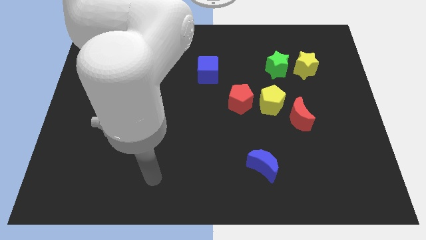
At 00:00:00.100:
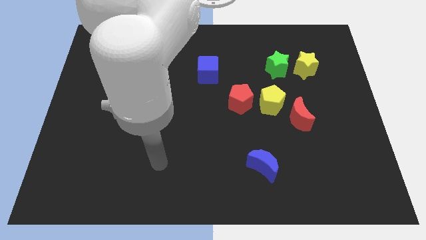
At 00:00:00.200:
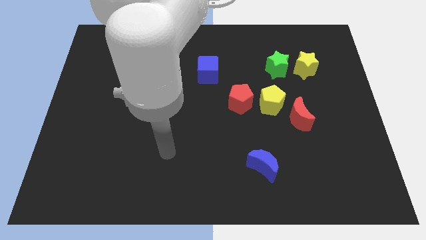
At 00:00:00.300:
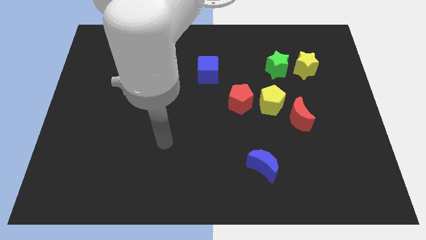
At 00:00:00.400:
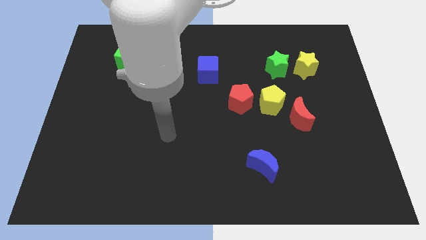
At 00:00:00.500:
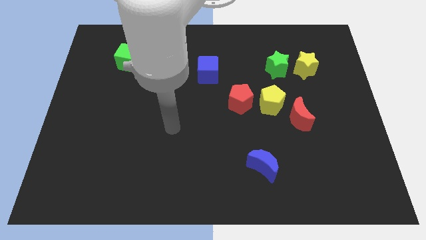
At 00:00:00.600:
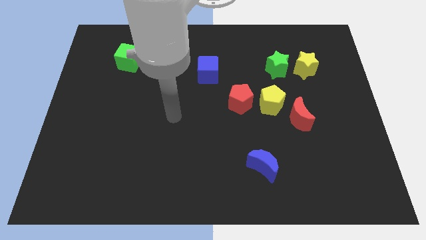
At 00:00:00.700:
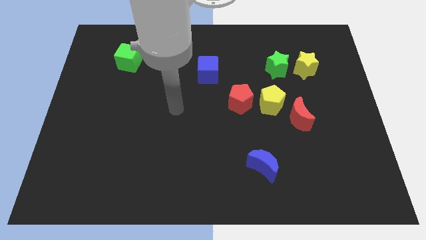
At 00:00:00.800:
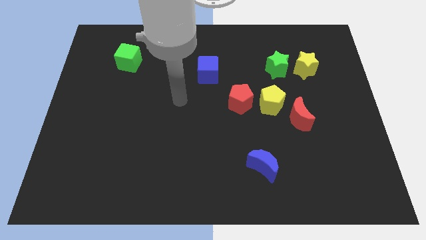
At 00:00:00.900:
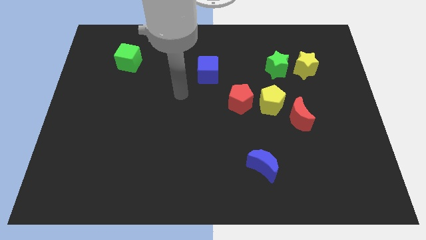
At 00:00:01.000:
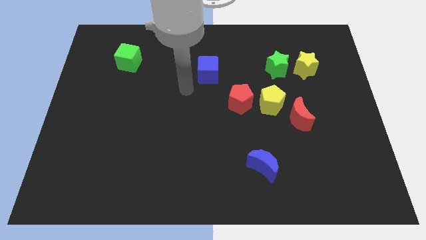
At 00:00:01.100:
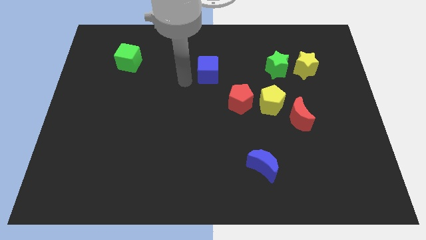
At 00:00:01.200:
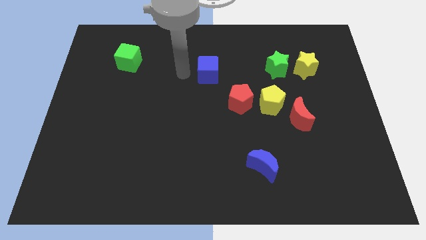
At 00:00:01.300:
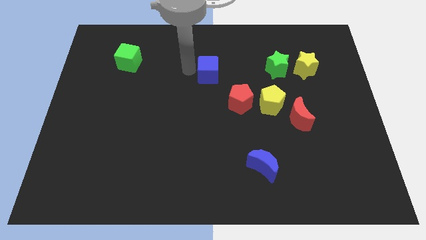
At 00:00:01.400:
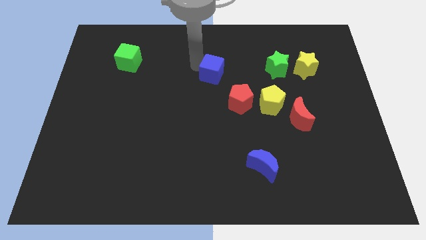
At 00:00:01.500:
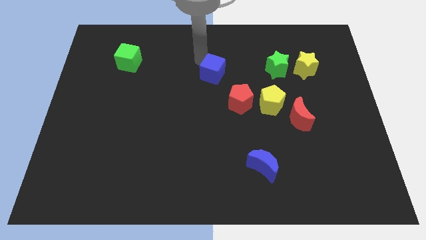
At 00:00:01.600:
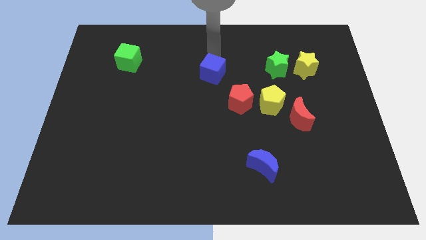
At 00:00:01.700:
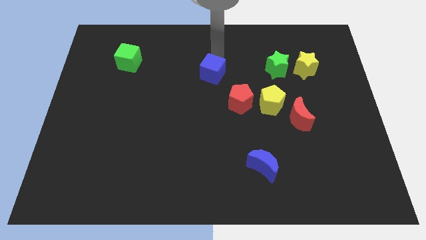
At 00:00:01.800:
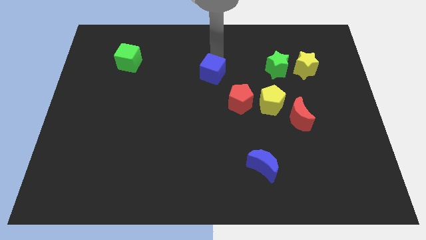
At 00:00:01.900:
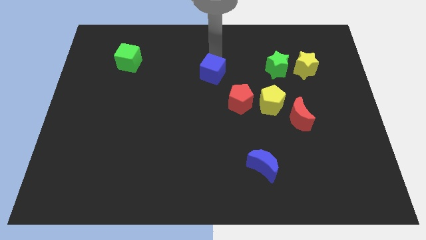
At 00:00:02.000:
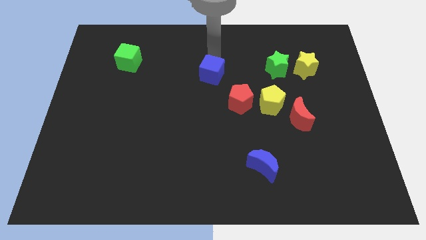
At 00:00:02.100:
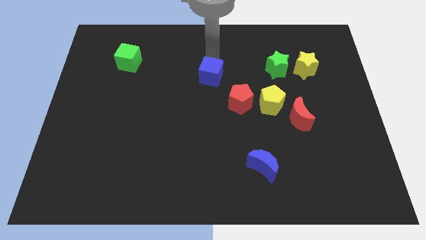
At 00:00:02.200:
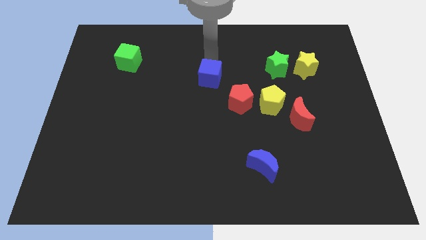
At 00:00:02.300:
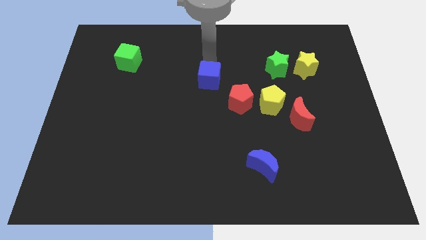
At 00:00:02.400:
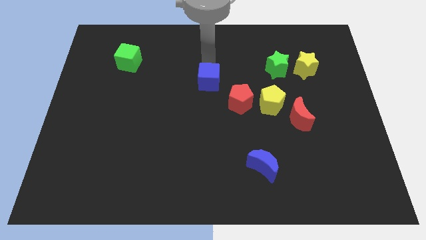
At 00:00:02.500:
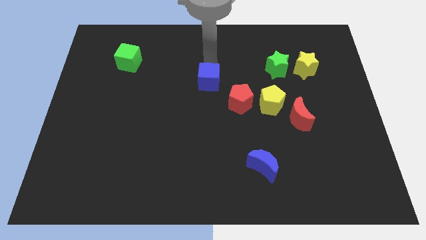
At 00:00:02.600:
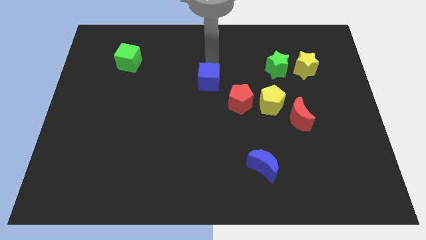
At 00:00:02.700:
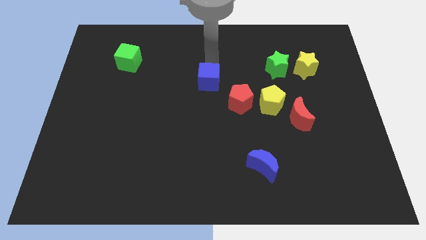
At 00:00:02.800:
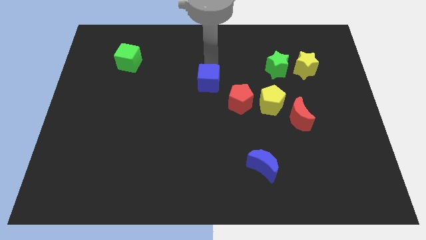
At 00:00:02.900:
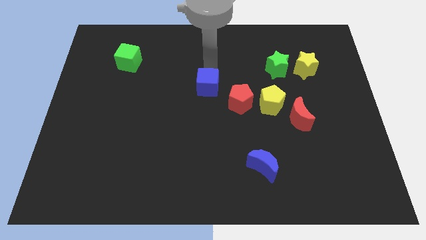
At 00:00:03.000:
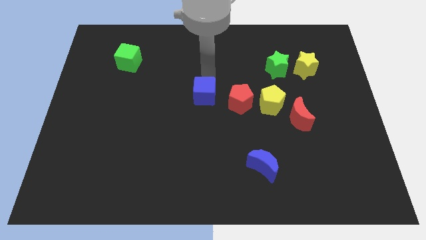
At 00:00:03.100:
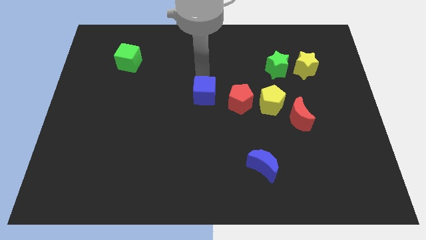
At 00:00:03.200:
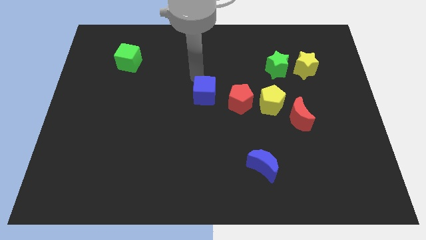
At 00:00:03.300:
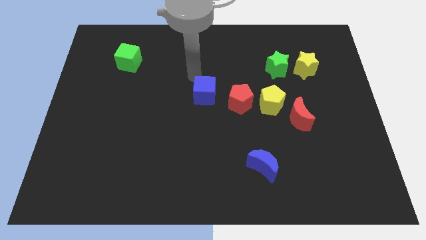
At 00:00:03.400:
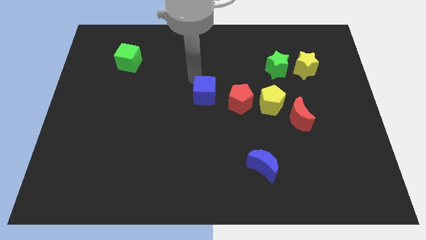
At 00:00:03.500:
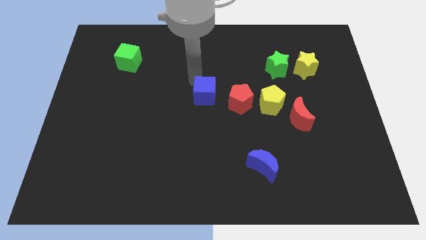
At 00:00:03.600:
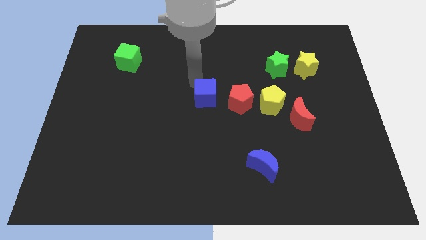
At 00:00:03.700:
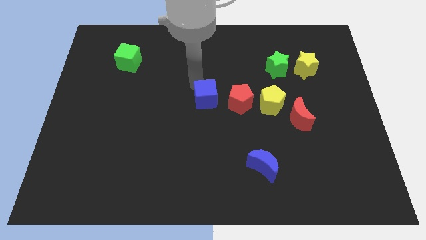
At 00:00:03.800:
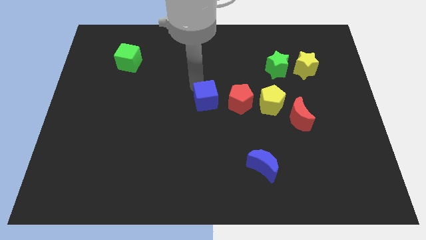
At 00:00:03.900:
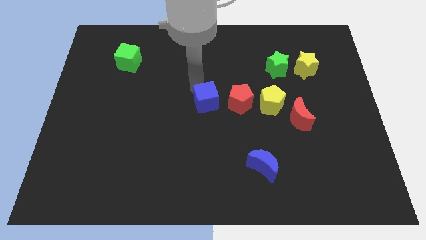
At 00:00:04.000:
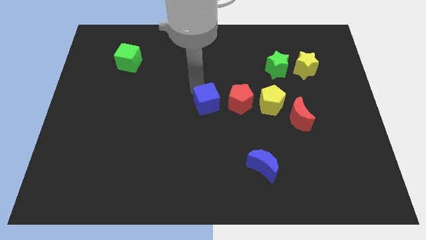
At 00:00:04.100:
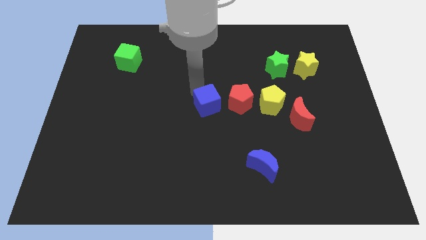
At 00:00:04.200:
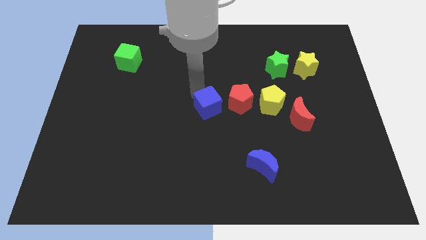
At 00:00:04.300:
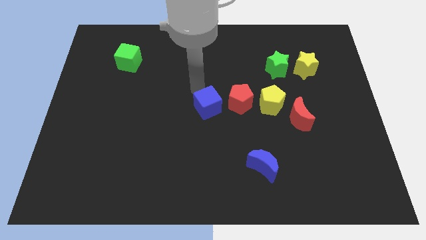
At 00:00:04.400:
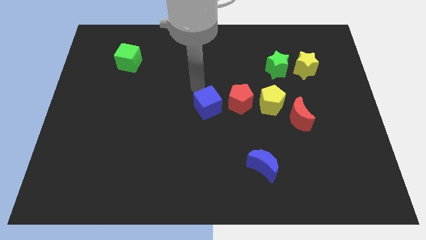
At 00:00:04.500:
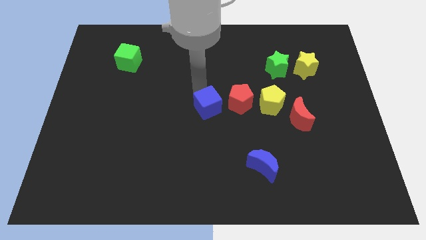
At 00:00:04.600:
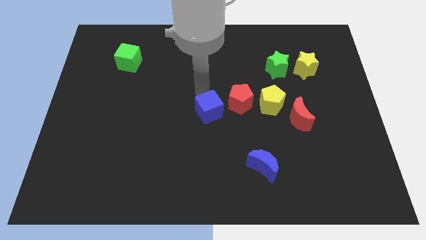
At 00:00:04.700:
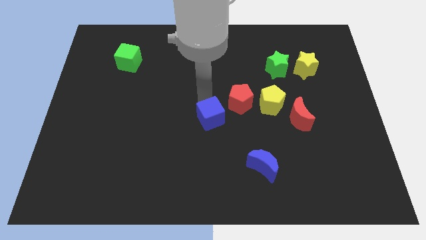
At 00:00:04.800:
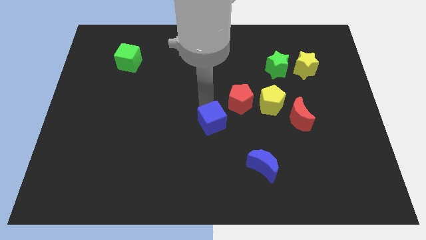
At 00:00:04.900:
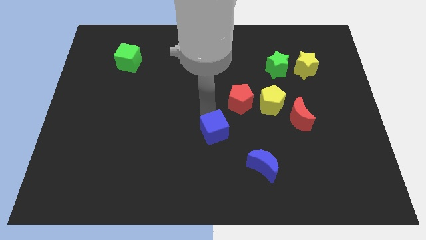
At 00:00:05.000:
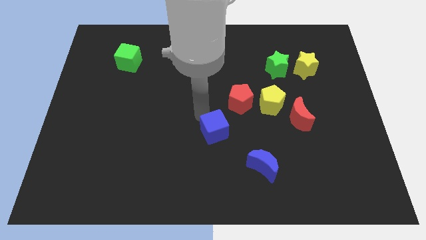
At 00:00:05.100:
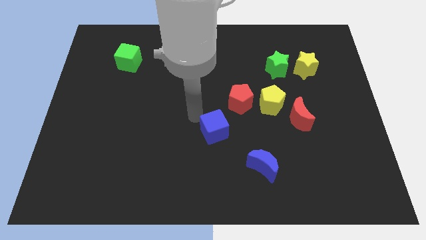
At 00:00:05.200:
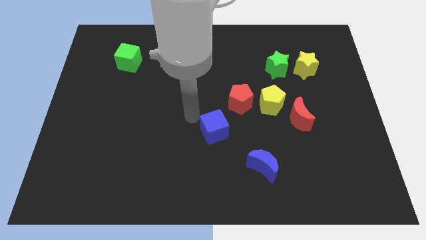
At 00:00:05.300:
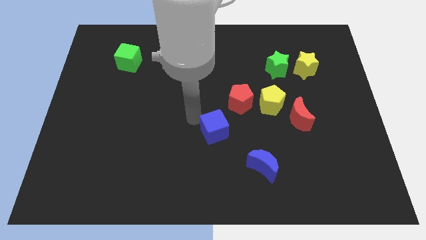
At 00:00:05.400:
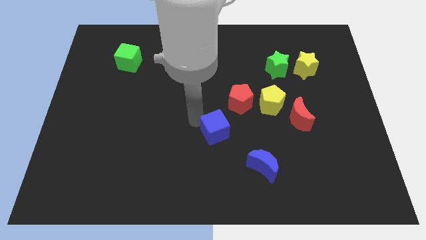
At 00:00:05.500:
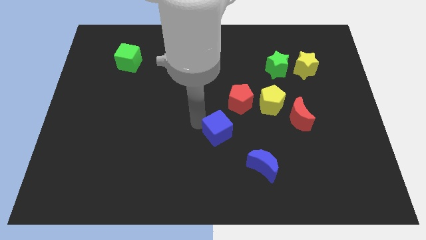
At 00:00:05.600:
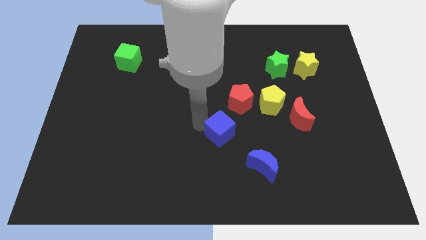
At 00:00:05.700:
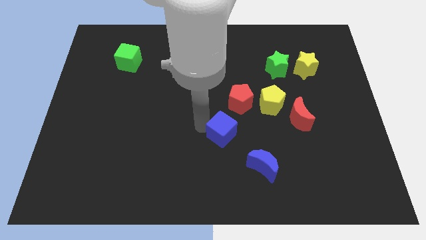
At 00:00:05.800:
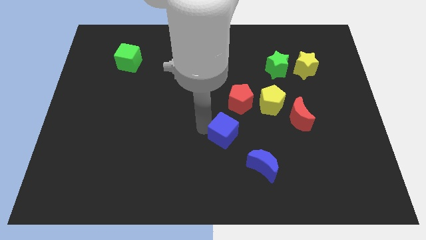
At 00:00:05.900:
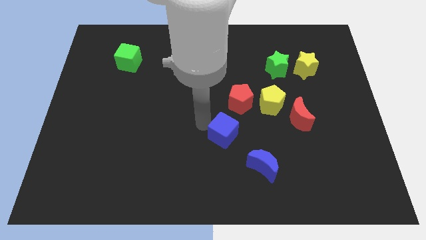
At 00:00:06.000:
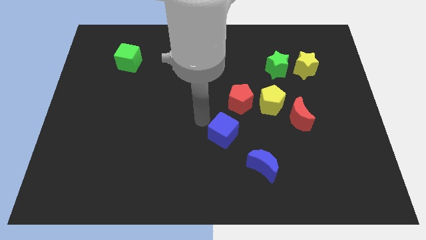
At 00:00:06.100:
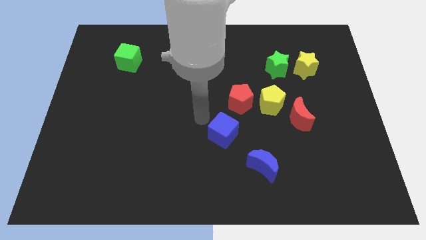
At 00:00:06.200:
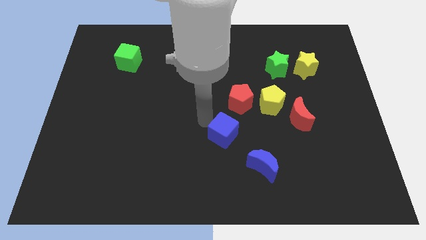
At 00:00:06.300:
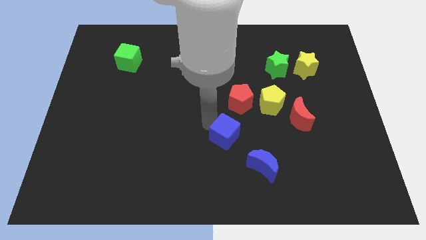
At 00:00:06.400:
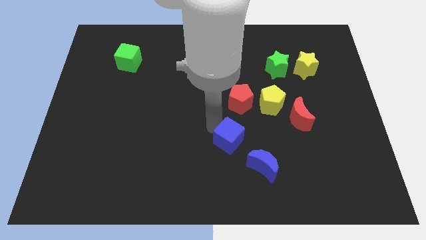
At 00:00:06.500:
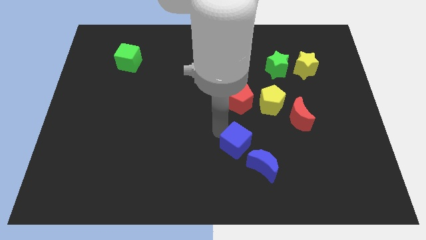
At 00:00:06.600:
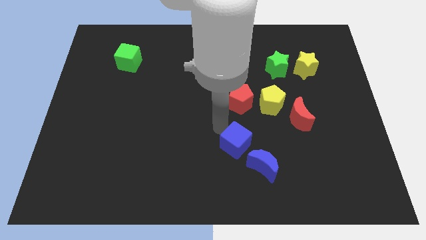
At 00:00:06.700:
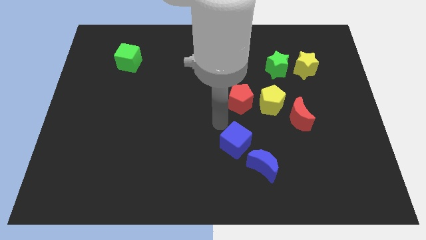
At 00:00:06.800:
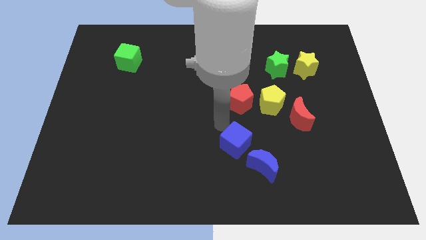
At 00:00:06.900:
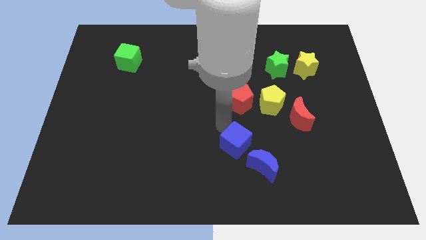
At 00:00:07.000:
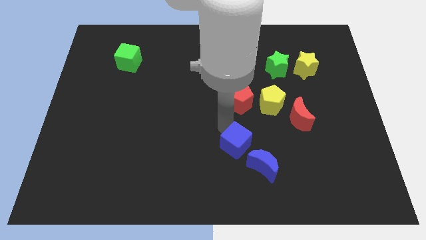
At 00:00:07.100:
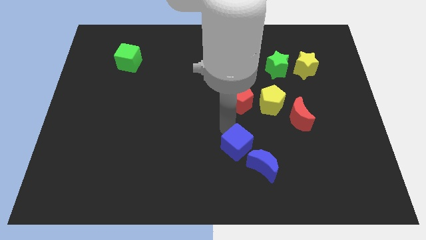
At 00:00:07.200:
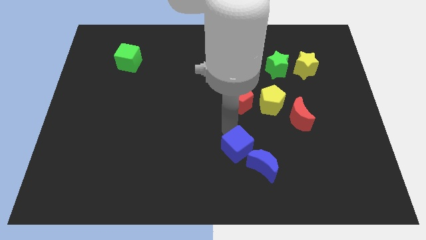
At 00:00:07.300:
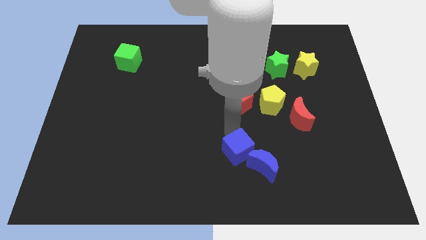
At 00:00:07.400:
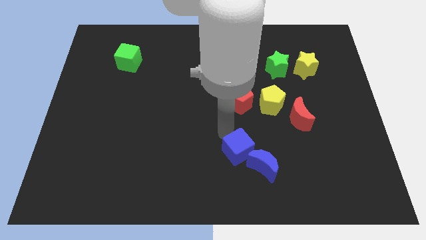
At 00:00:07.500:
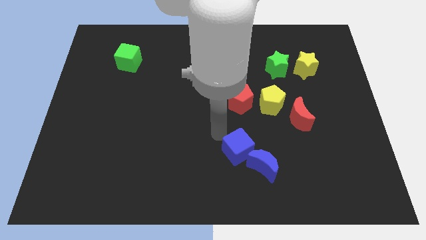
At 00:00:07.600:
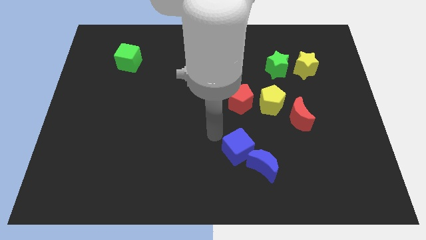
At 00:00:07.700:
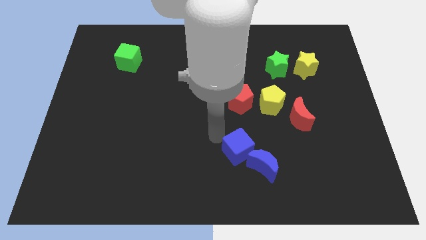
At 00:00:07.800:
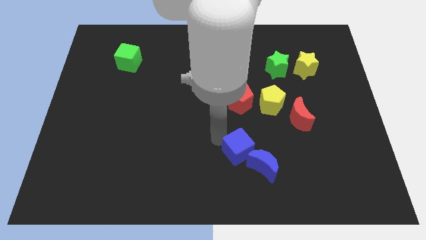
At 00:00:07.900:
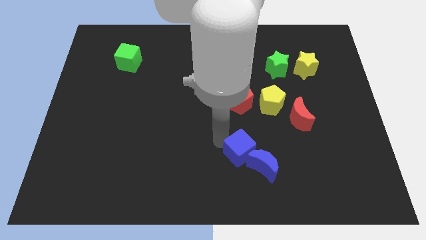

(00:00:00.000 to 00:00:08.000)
put the blue cube close to the blue moon
